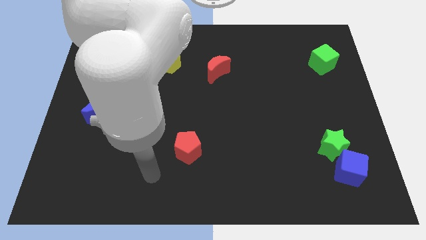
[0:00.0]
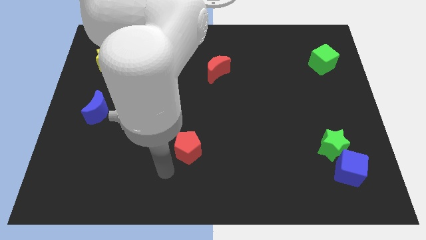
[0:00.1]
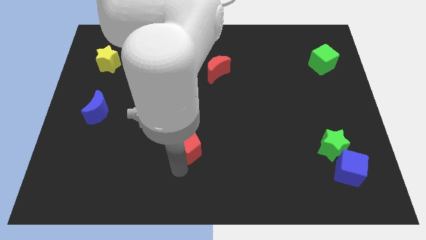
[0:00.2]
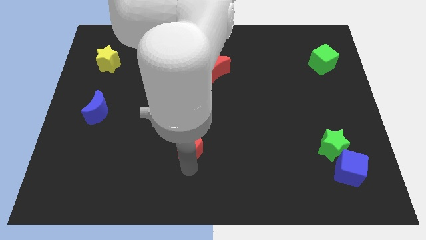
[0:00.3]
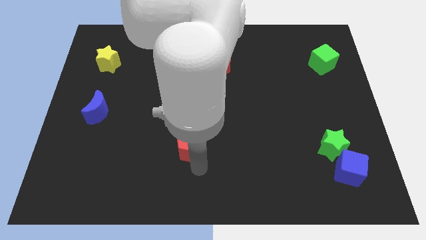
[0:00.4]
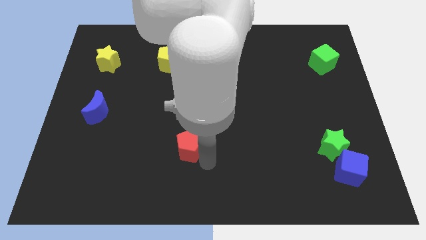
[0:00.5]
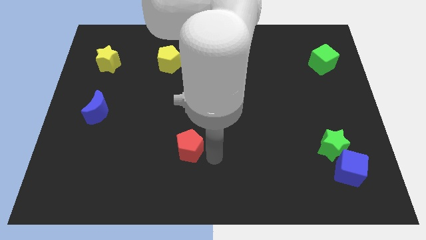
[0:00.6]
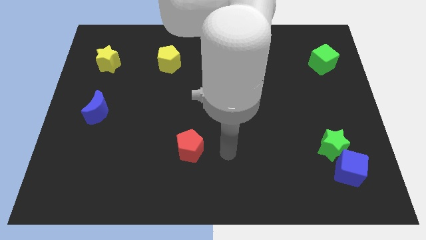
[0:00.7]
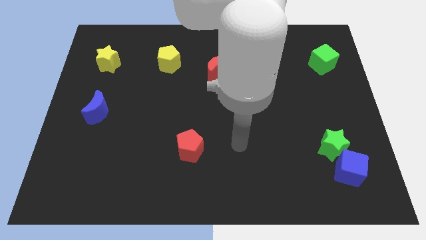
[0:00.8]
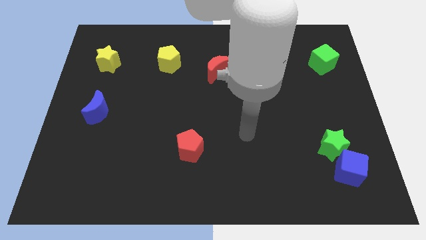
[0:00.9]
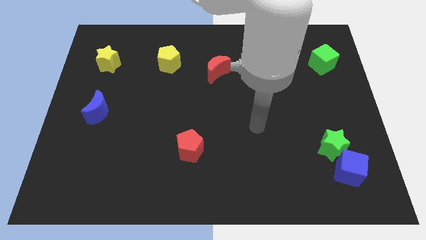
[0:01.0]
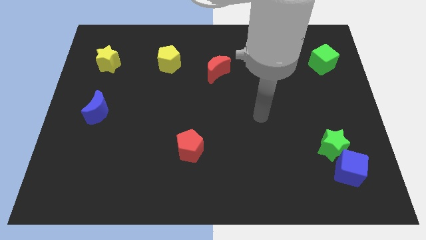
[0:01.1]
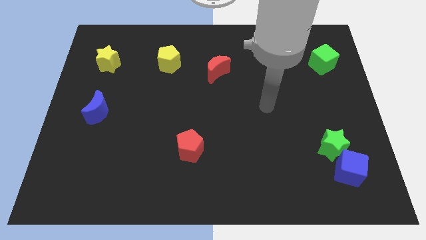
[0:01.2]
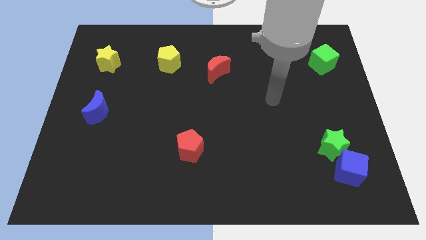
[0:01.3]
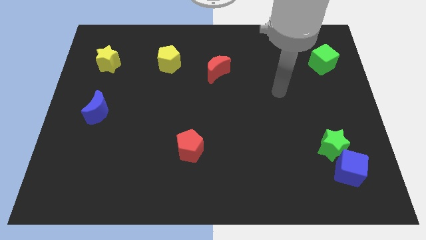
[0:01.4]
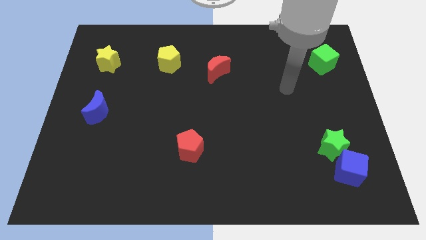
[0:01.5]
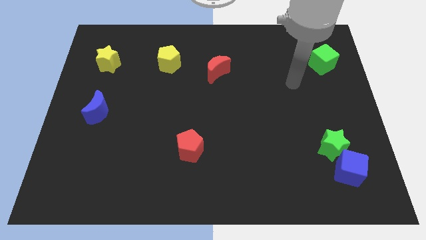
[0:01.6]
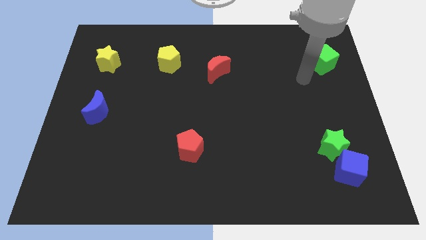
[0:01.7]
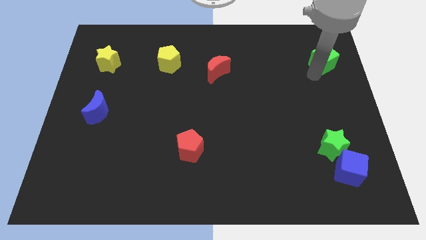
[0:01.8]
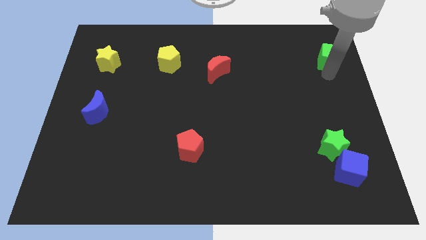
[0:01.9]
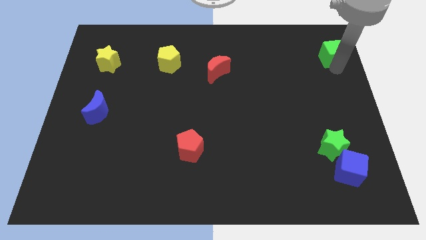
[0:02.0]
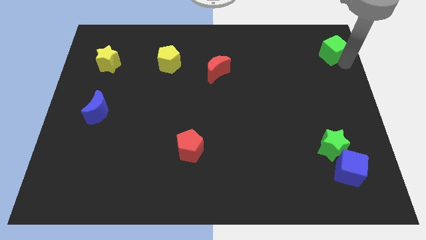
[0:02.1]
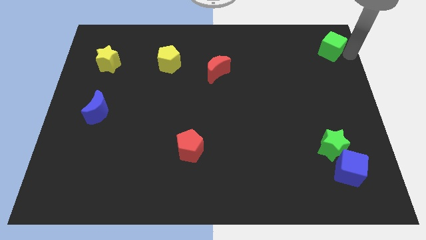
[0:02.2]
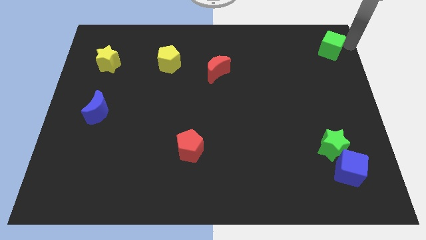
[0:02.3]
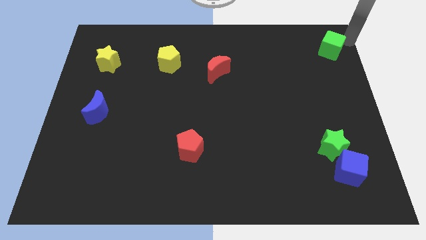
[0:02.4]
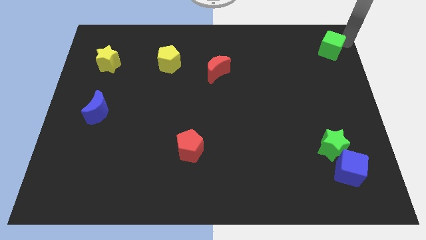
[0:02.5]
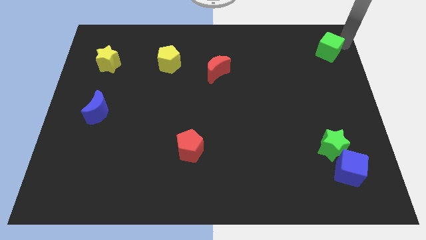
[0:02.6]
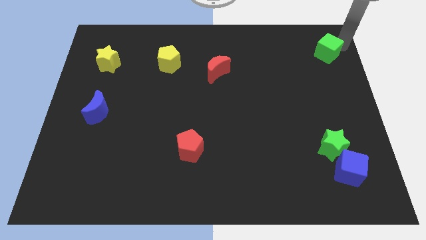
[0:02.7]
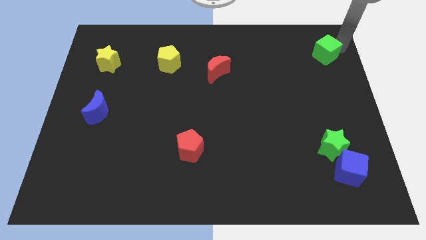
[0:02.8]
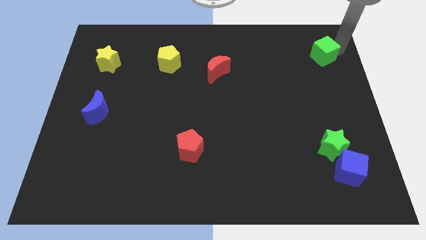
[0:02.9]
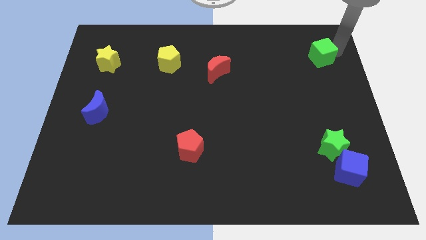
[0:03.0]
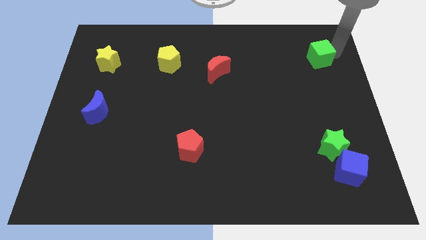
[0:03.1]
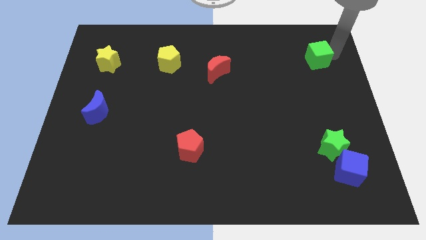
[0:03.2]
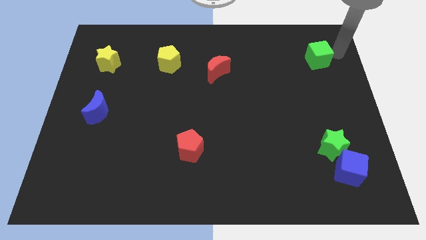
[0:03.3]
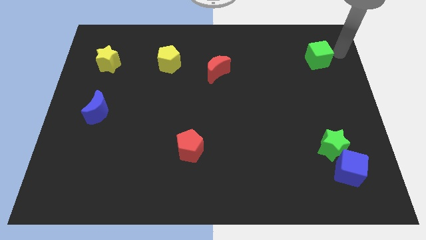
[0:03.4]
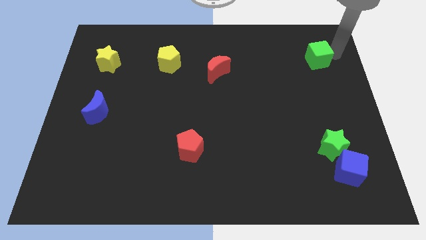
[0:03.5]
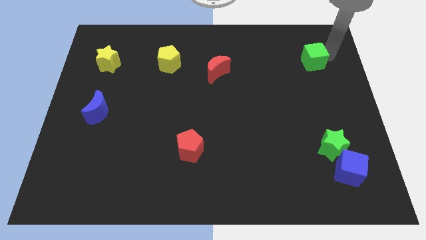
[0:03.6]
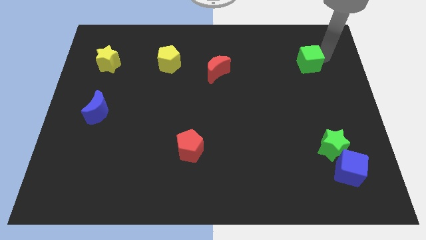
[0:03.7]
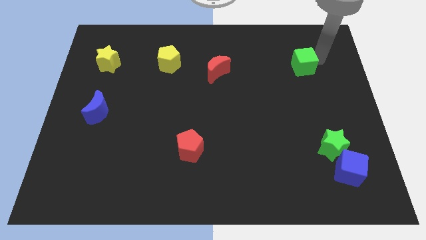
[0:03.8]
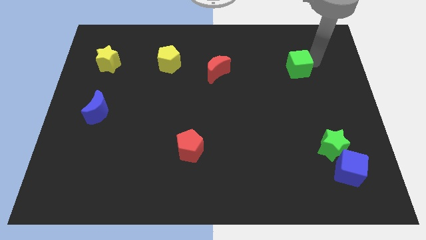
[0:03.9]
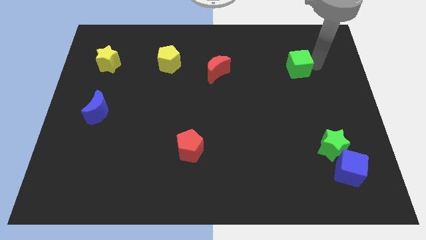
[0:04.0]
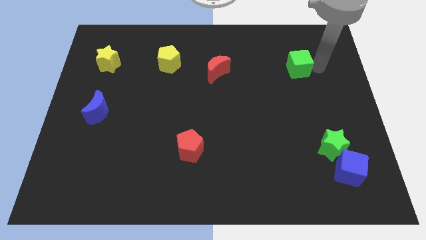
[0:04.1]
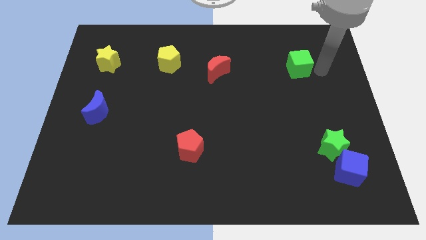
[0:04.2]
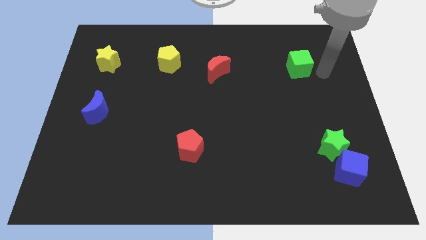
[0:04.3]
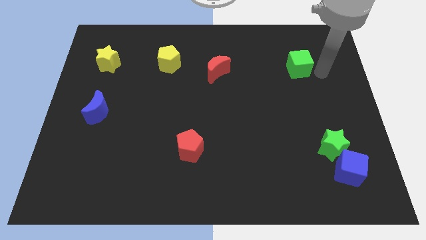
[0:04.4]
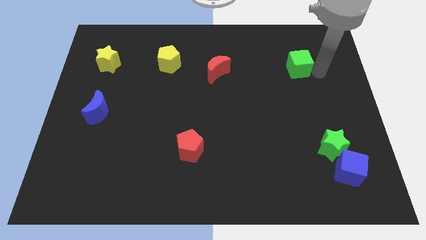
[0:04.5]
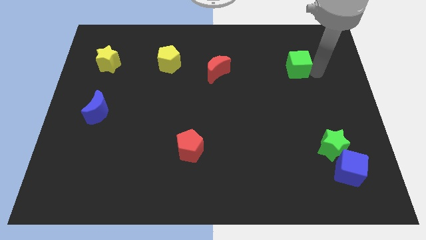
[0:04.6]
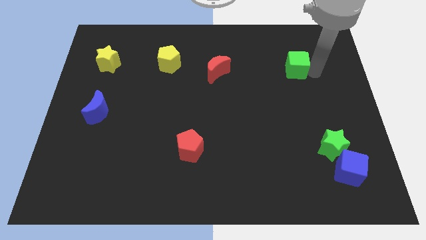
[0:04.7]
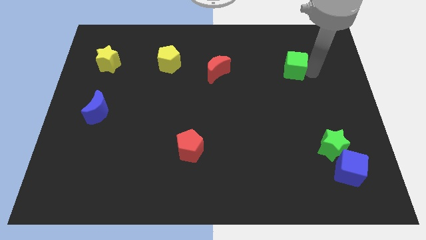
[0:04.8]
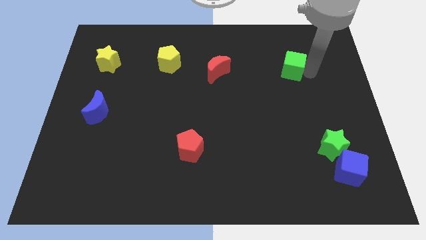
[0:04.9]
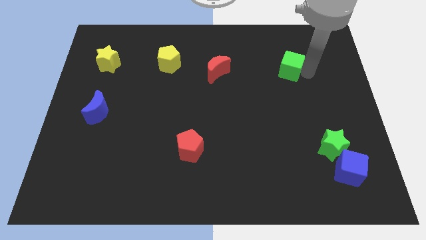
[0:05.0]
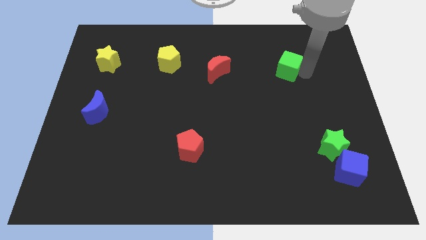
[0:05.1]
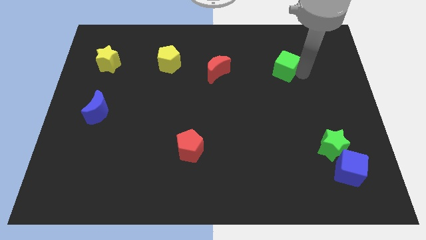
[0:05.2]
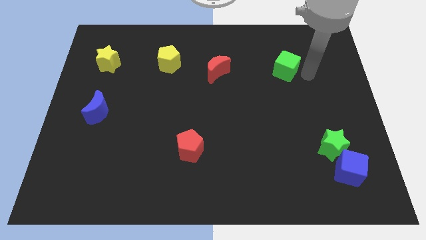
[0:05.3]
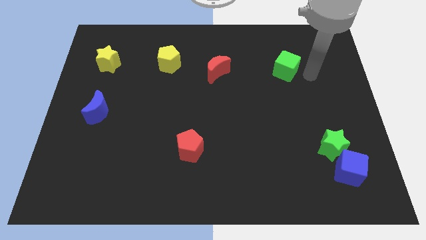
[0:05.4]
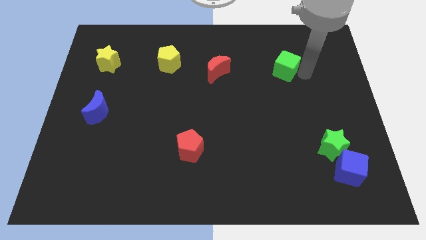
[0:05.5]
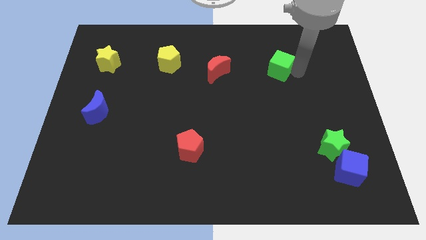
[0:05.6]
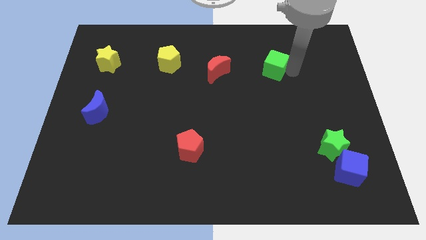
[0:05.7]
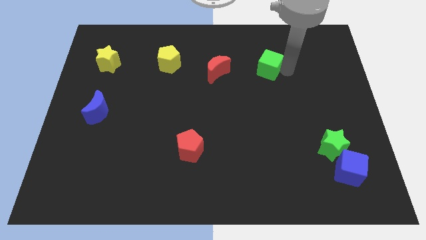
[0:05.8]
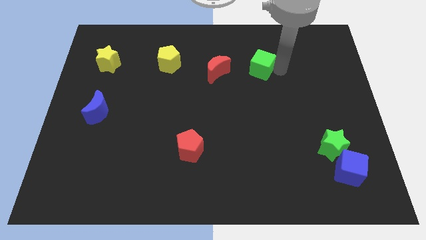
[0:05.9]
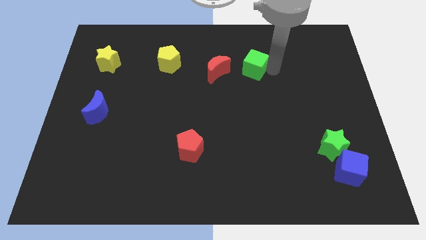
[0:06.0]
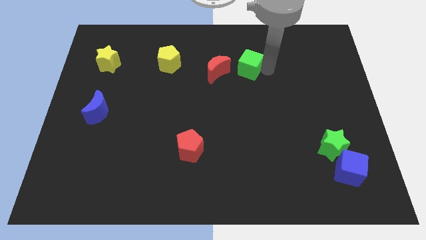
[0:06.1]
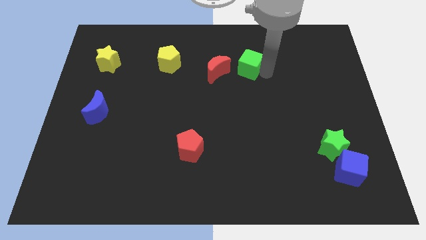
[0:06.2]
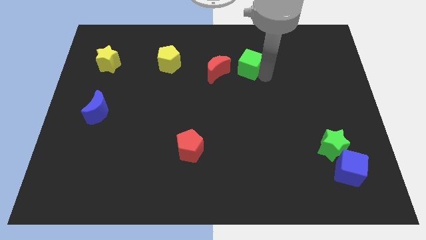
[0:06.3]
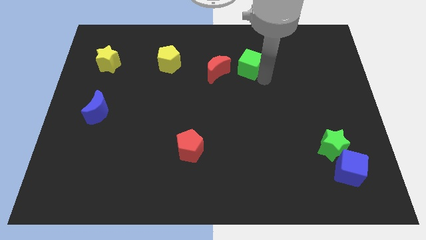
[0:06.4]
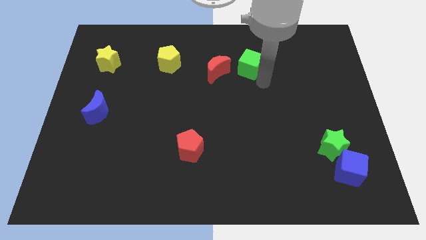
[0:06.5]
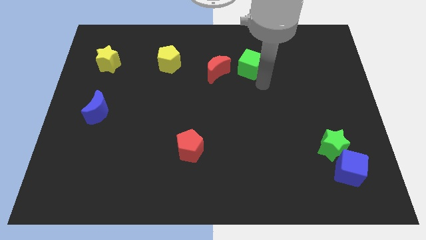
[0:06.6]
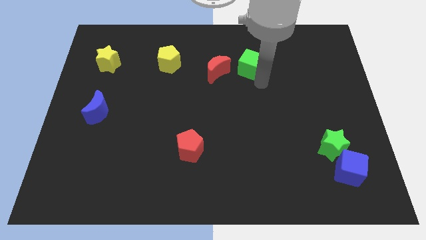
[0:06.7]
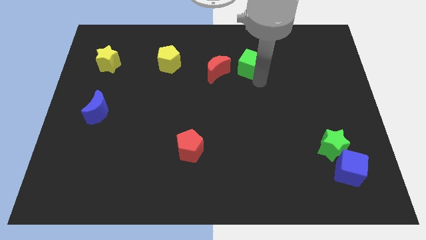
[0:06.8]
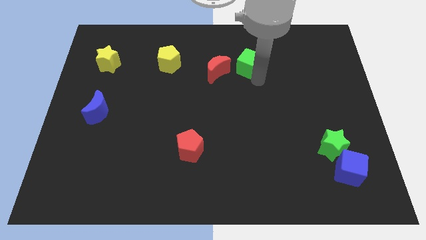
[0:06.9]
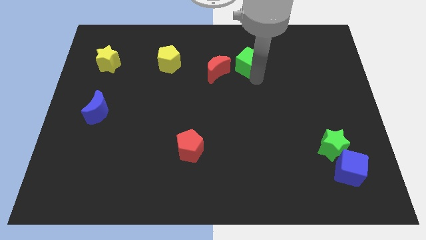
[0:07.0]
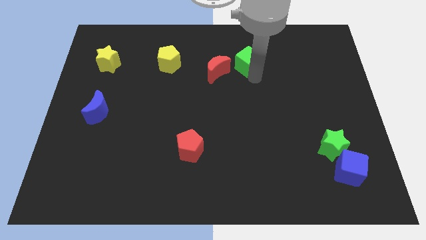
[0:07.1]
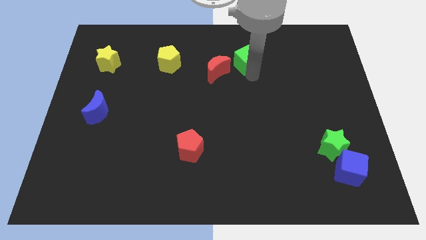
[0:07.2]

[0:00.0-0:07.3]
push the green cube to the left

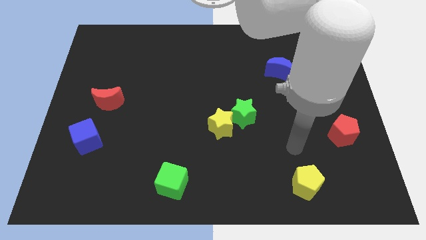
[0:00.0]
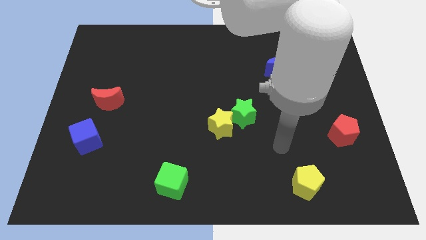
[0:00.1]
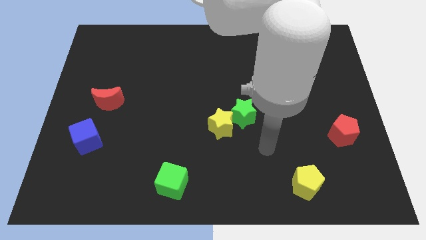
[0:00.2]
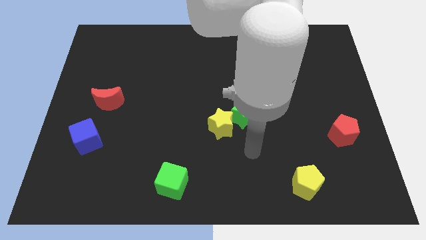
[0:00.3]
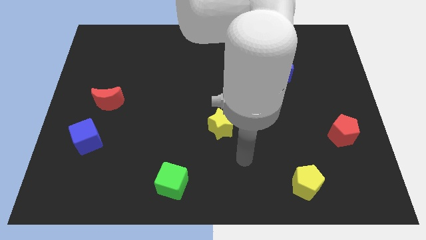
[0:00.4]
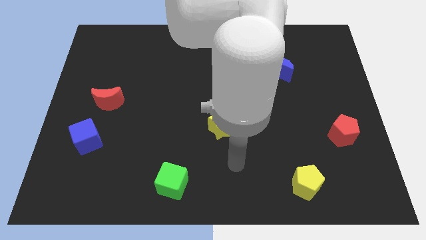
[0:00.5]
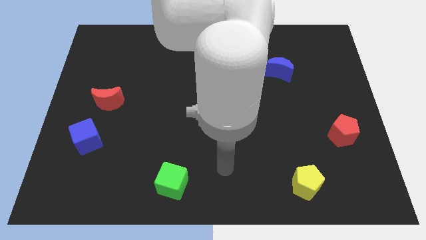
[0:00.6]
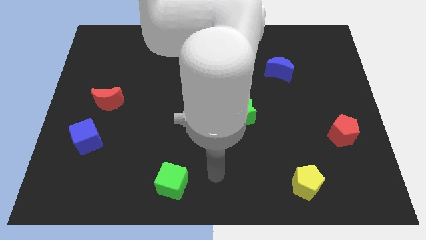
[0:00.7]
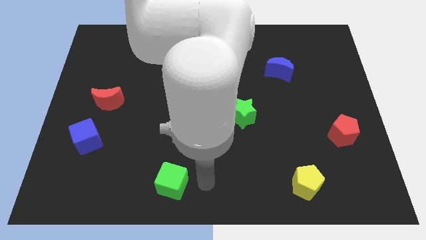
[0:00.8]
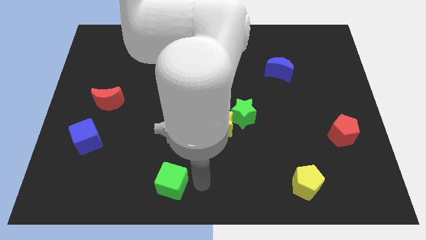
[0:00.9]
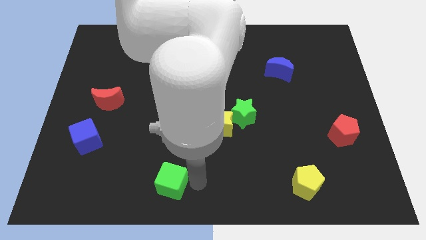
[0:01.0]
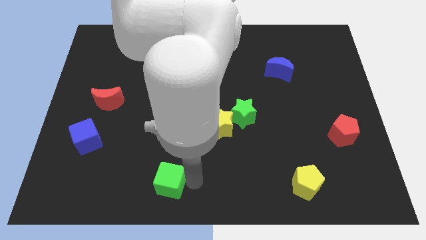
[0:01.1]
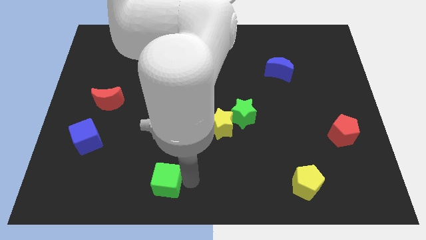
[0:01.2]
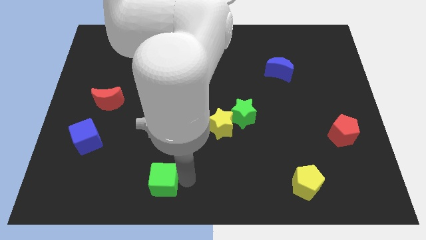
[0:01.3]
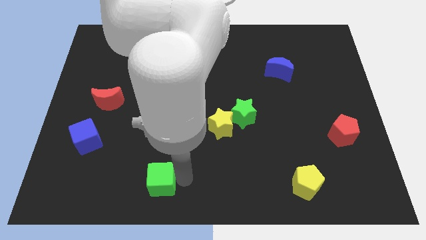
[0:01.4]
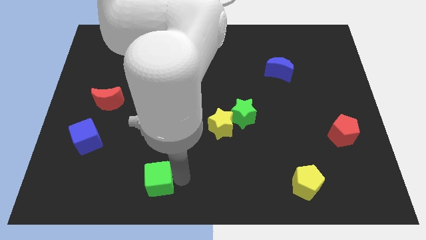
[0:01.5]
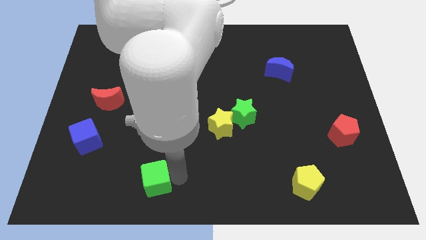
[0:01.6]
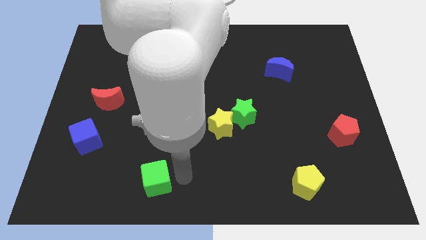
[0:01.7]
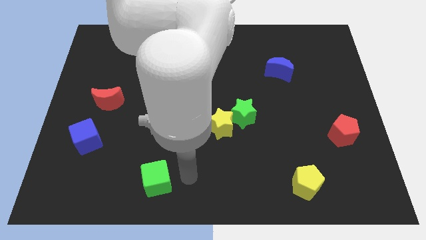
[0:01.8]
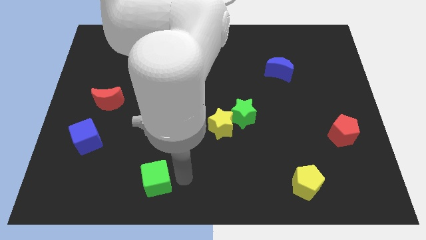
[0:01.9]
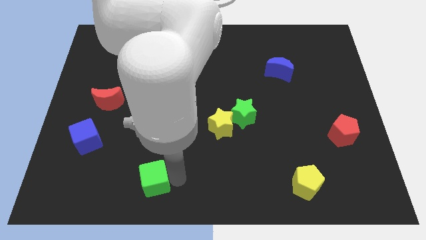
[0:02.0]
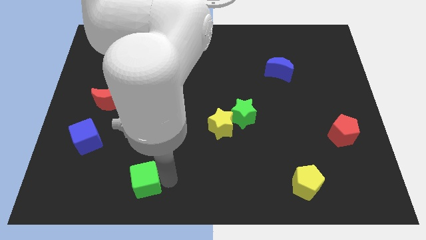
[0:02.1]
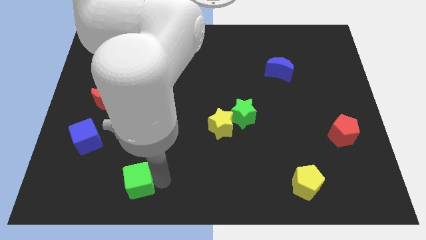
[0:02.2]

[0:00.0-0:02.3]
push the green cube left a little bit
